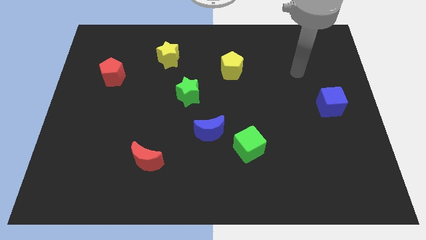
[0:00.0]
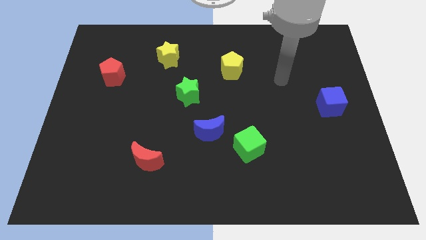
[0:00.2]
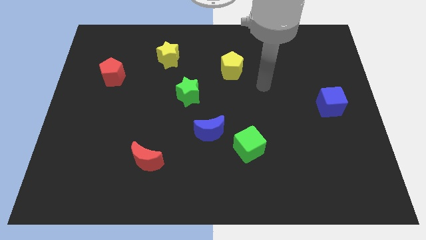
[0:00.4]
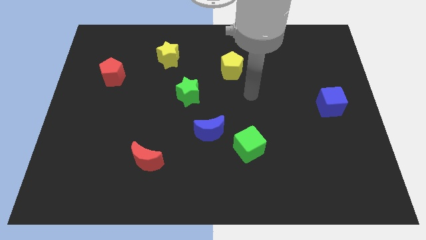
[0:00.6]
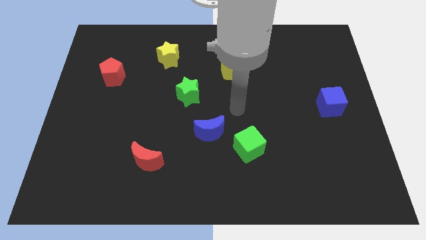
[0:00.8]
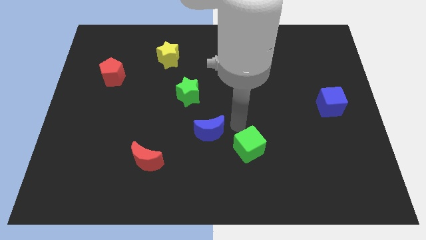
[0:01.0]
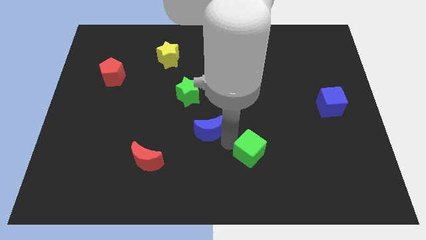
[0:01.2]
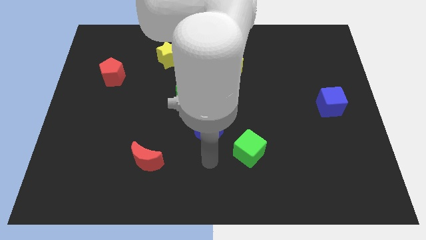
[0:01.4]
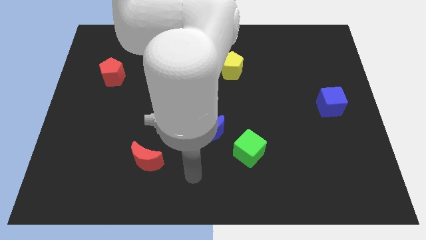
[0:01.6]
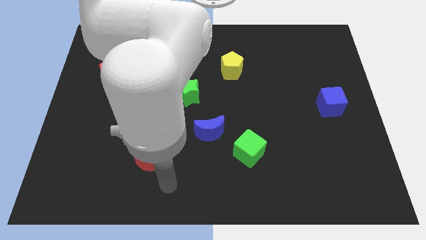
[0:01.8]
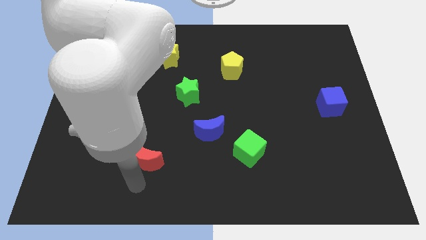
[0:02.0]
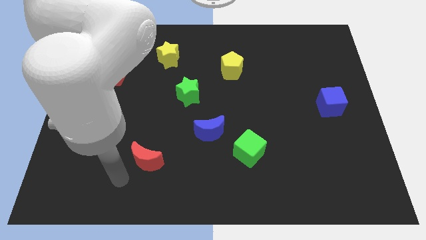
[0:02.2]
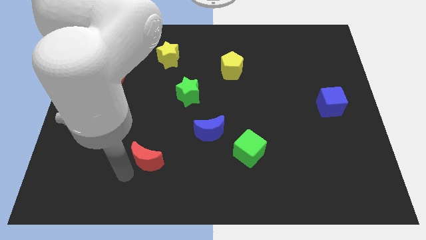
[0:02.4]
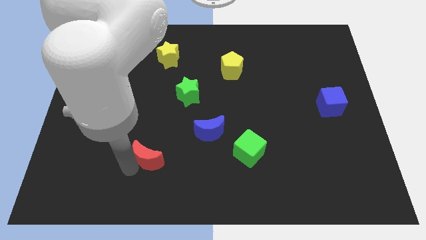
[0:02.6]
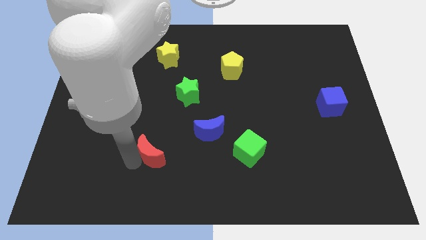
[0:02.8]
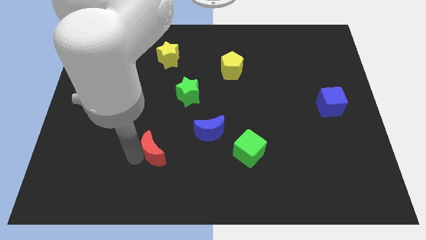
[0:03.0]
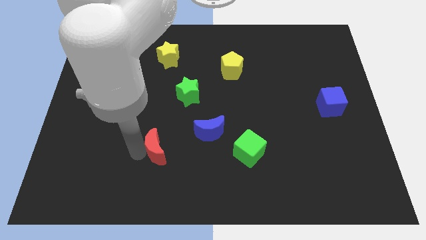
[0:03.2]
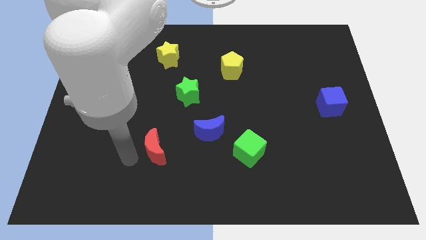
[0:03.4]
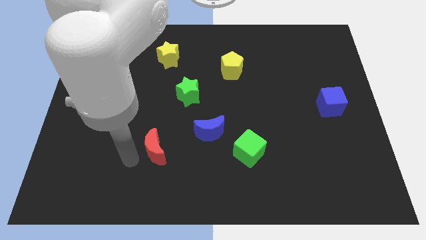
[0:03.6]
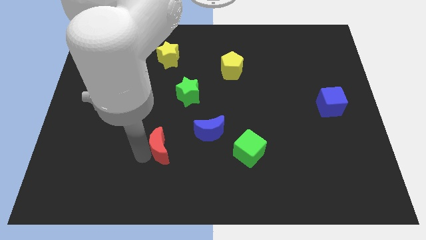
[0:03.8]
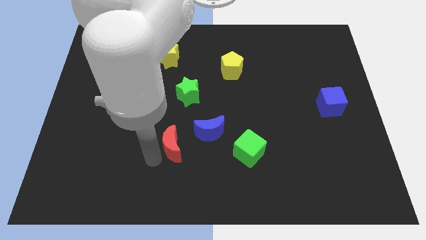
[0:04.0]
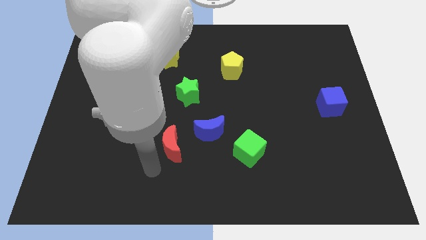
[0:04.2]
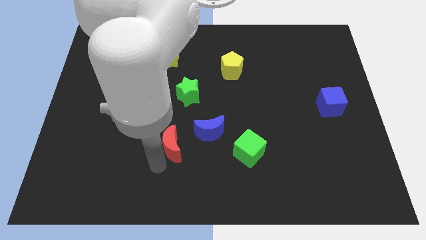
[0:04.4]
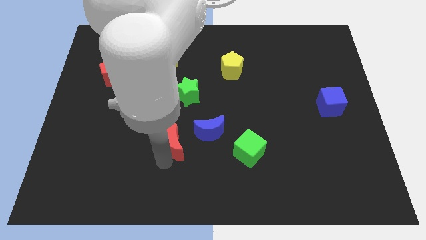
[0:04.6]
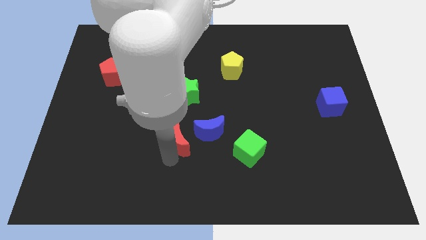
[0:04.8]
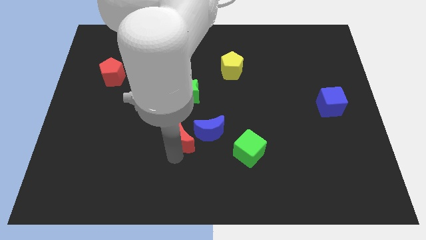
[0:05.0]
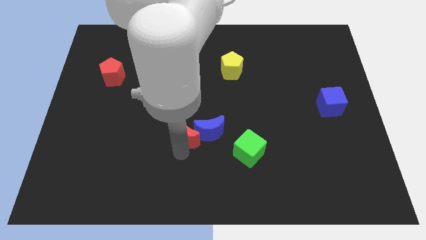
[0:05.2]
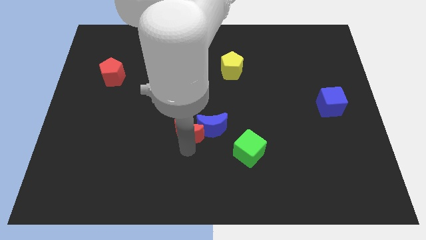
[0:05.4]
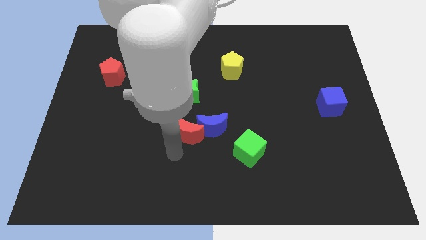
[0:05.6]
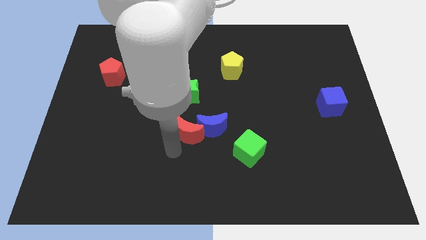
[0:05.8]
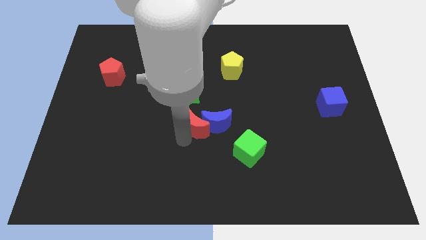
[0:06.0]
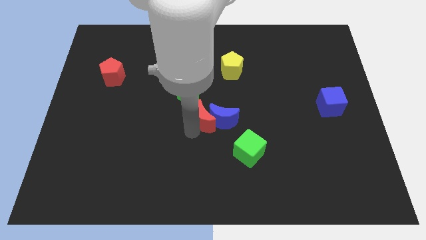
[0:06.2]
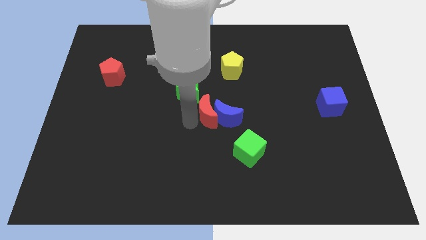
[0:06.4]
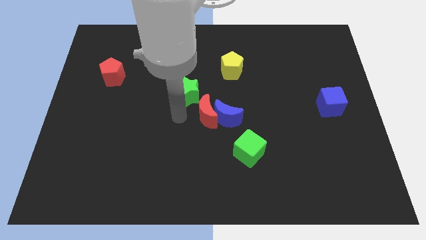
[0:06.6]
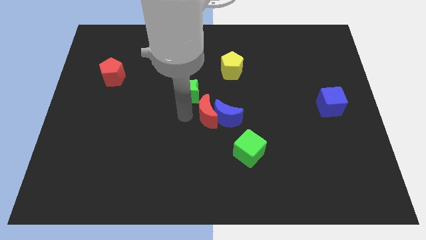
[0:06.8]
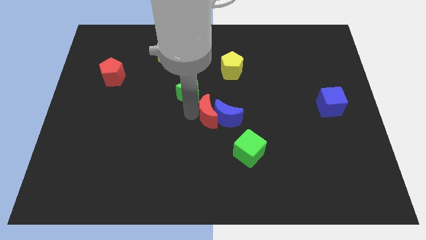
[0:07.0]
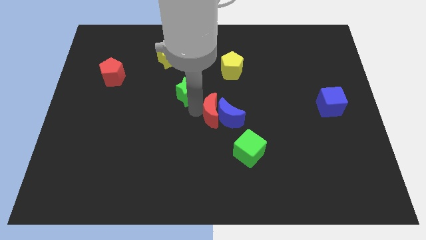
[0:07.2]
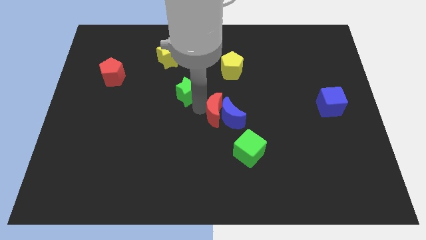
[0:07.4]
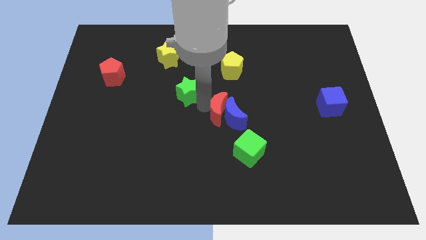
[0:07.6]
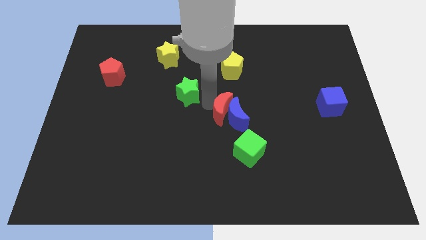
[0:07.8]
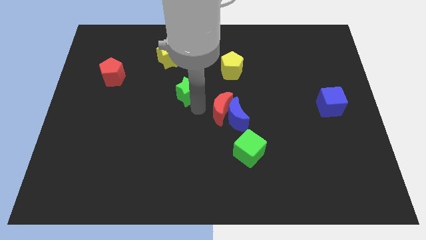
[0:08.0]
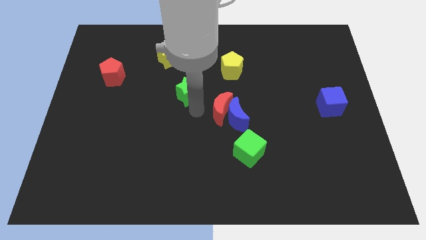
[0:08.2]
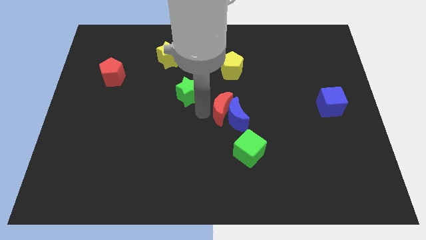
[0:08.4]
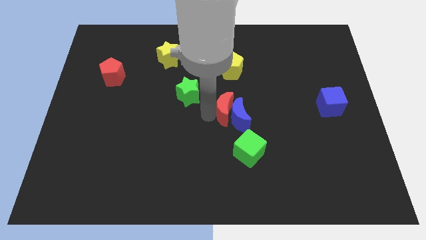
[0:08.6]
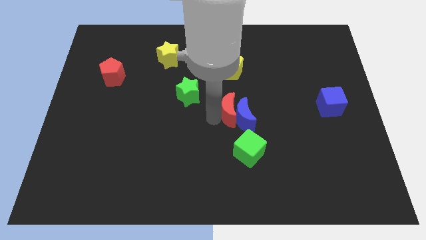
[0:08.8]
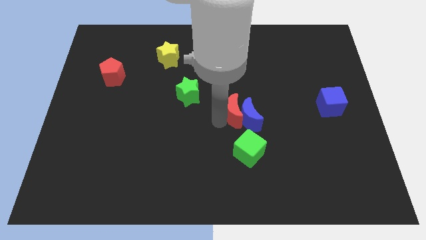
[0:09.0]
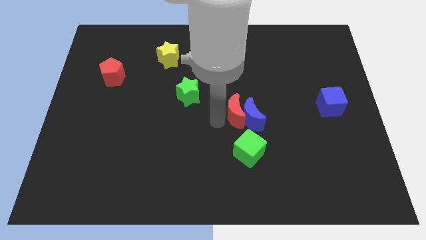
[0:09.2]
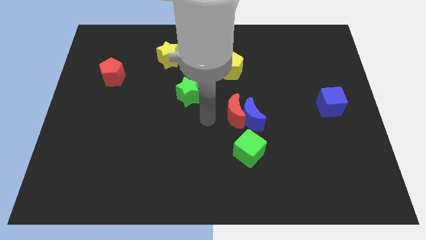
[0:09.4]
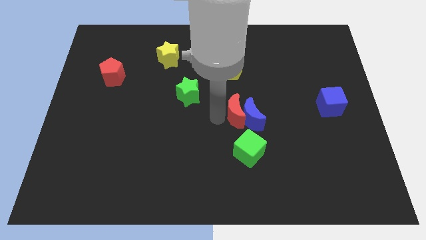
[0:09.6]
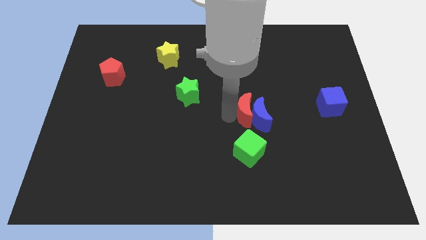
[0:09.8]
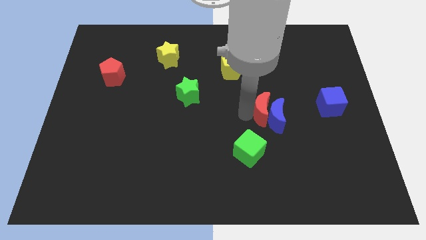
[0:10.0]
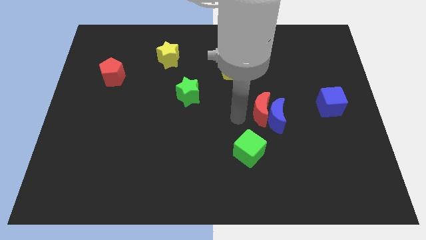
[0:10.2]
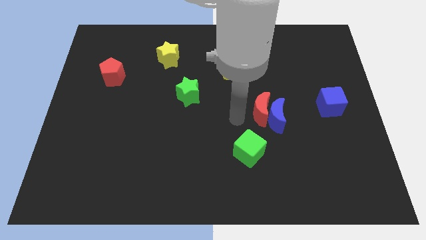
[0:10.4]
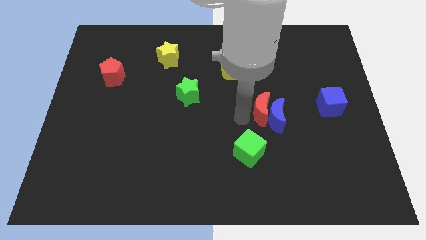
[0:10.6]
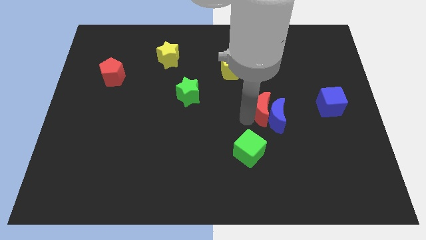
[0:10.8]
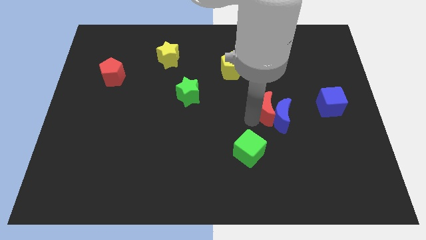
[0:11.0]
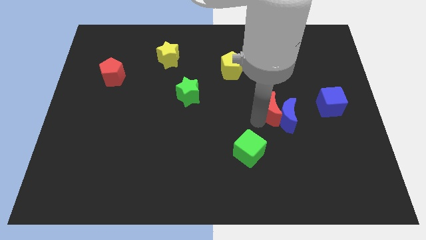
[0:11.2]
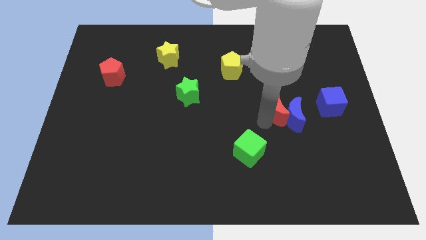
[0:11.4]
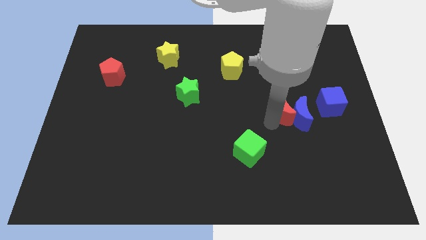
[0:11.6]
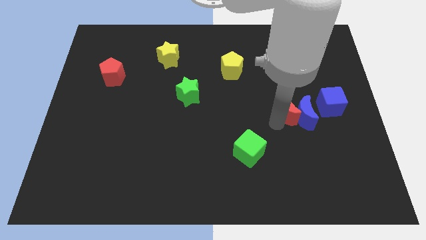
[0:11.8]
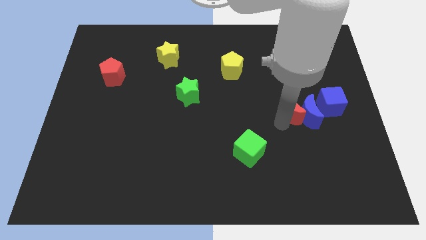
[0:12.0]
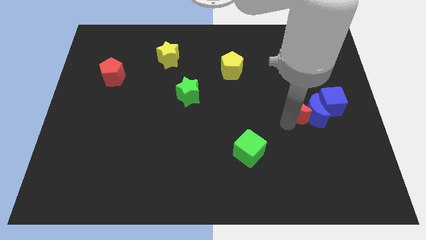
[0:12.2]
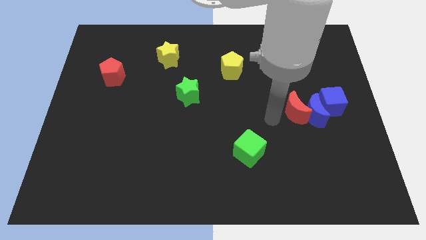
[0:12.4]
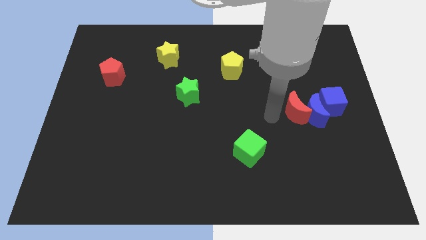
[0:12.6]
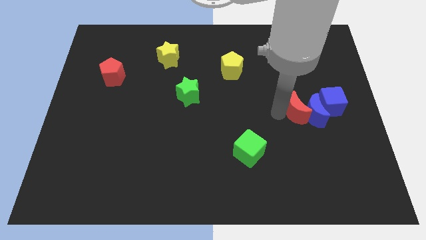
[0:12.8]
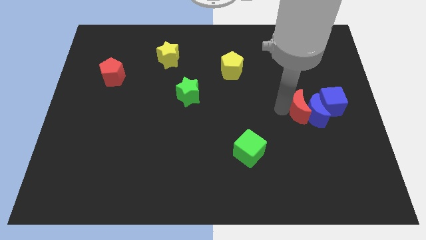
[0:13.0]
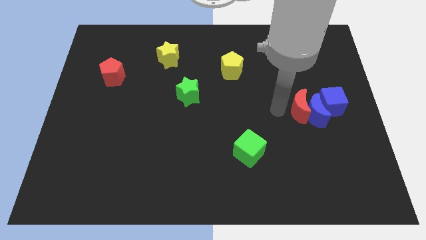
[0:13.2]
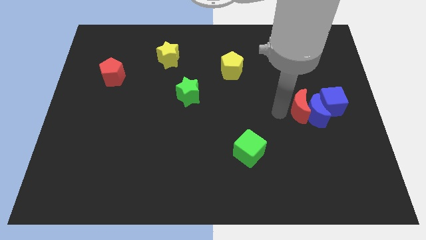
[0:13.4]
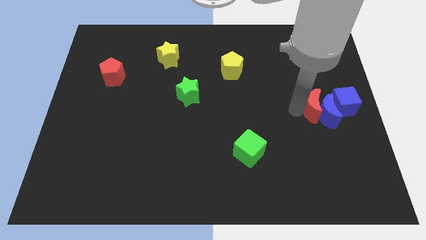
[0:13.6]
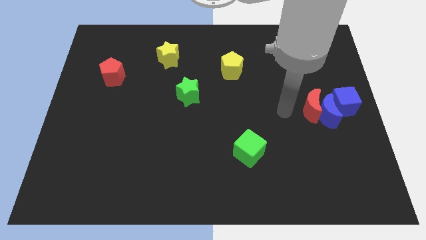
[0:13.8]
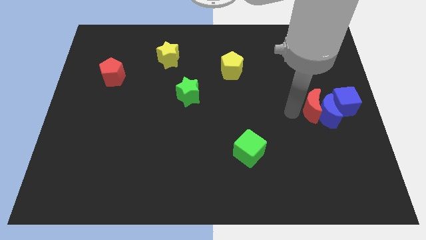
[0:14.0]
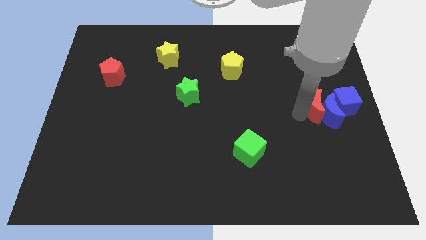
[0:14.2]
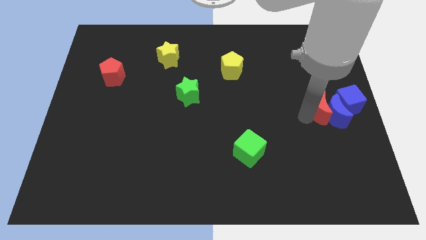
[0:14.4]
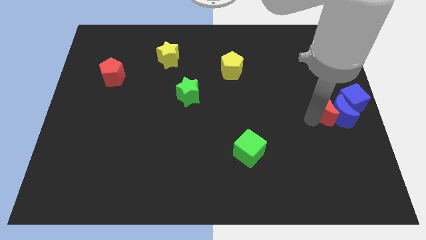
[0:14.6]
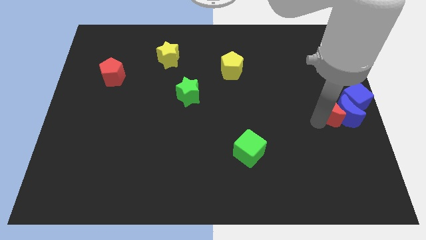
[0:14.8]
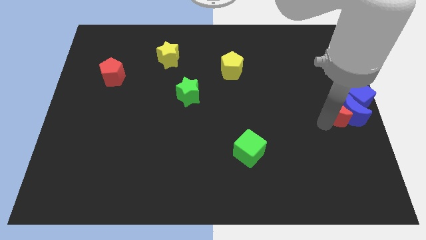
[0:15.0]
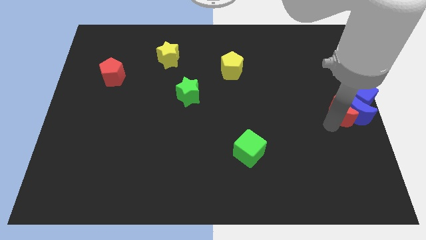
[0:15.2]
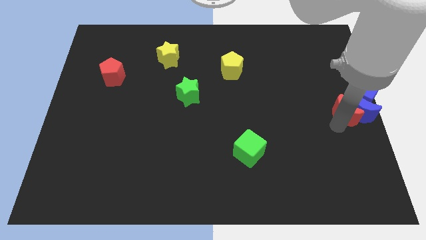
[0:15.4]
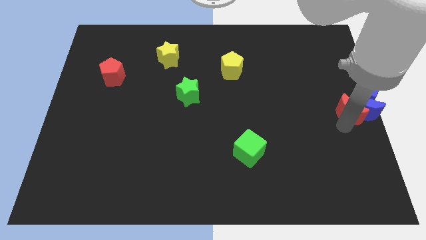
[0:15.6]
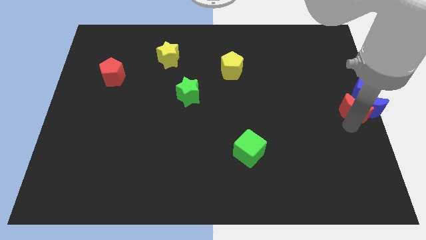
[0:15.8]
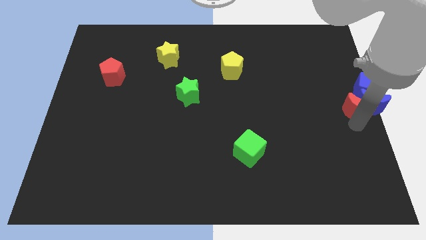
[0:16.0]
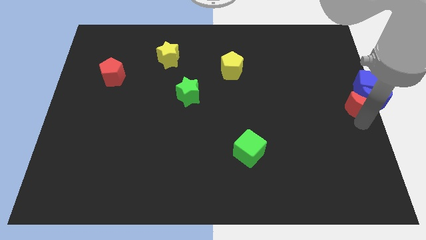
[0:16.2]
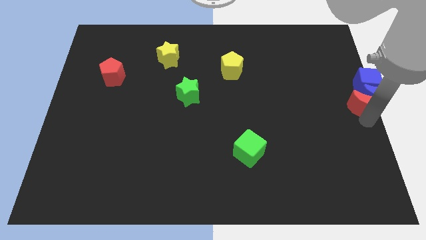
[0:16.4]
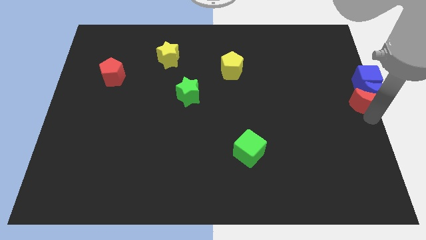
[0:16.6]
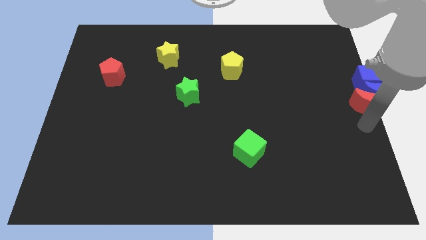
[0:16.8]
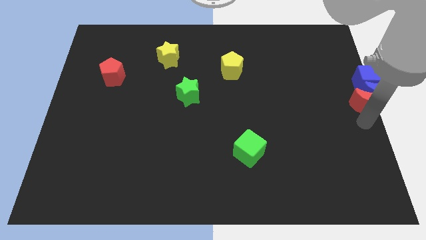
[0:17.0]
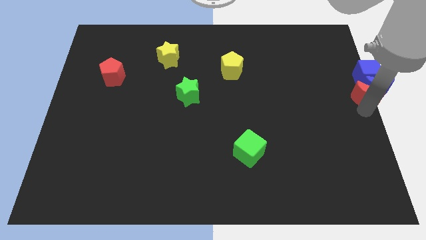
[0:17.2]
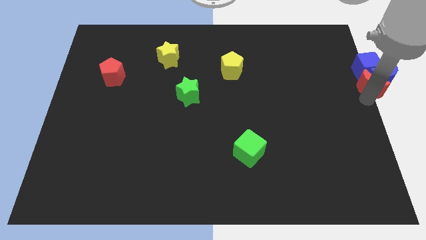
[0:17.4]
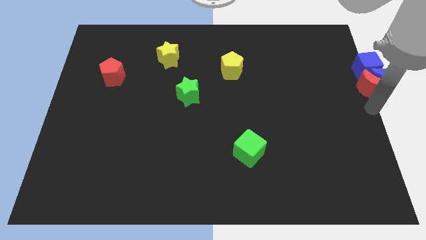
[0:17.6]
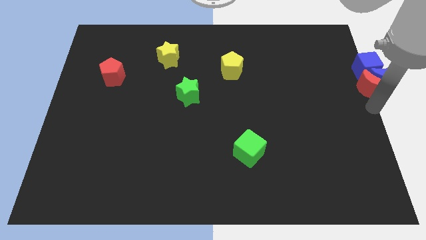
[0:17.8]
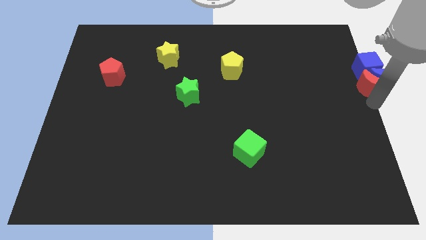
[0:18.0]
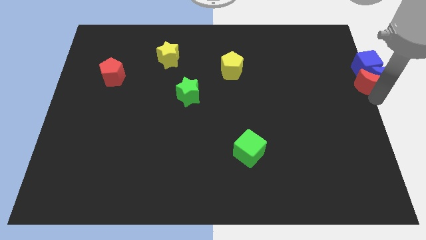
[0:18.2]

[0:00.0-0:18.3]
put the red moon close to the blue cube
